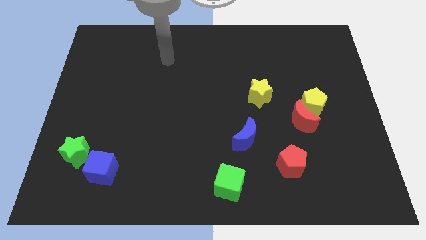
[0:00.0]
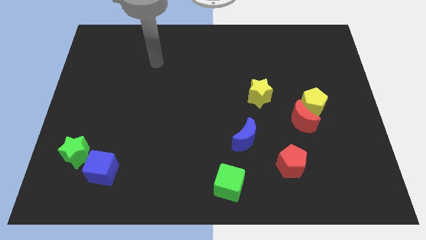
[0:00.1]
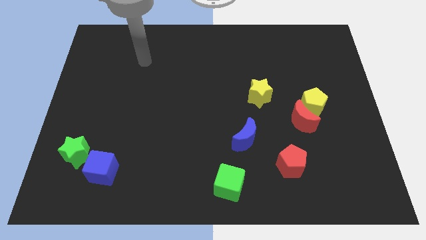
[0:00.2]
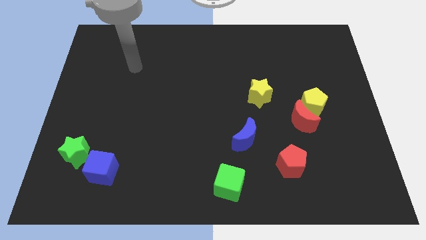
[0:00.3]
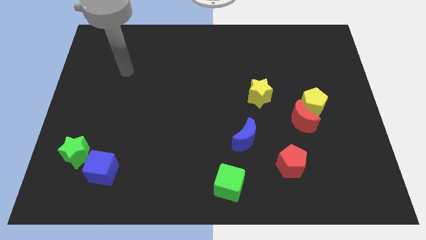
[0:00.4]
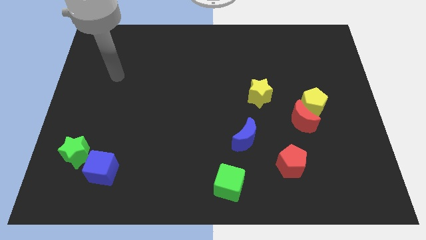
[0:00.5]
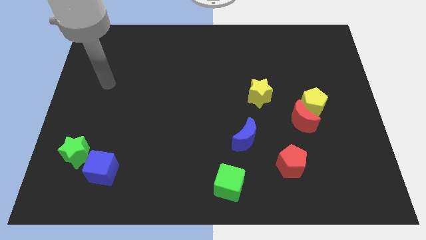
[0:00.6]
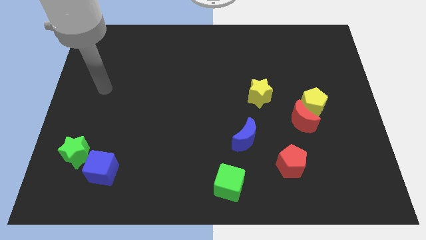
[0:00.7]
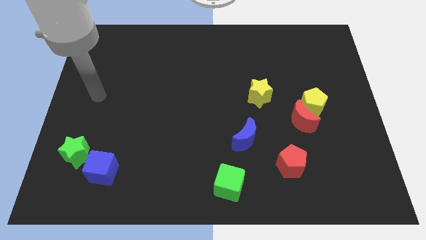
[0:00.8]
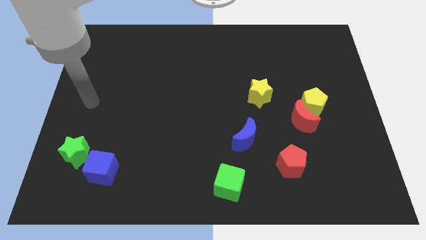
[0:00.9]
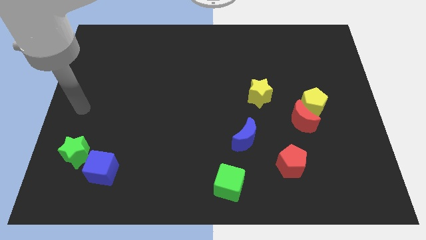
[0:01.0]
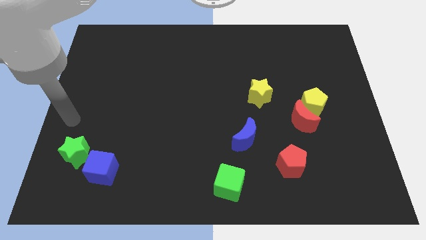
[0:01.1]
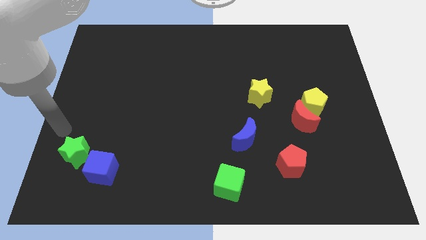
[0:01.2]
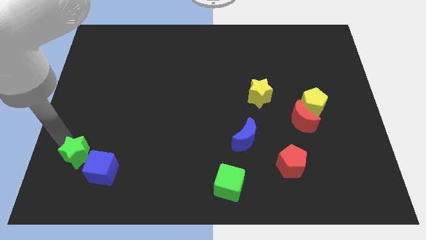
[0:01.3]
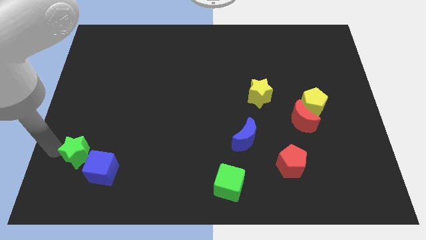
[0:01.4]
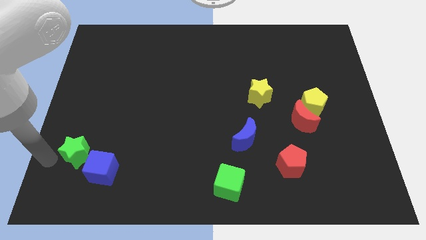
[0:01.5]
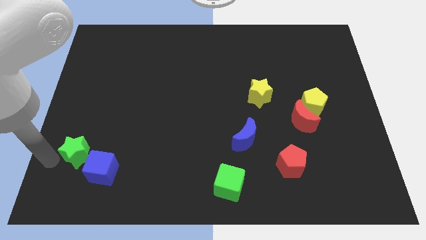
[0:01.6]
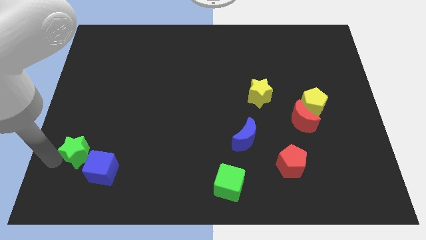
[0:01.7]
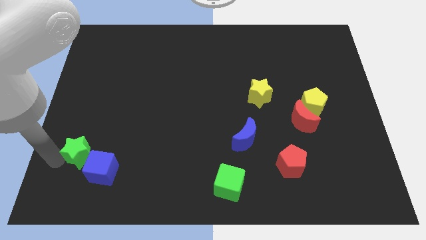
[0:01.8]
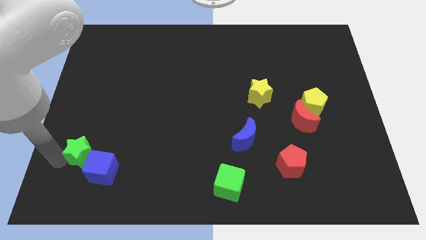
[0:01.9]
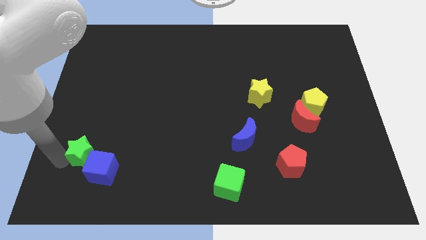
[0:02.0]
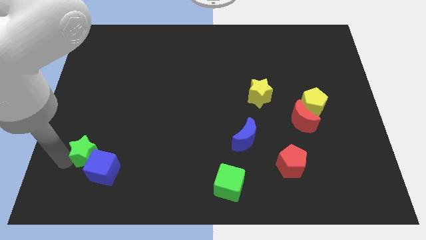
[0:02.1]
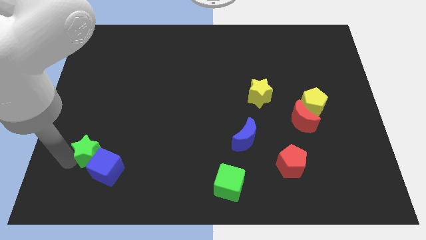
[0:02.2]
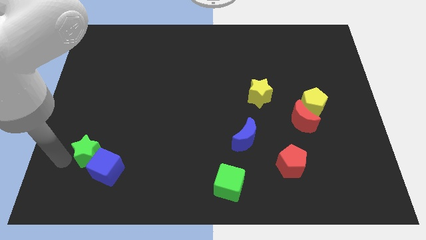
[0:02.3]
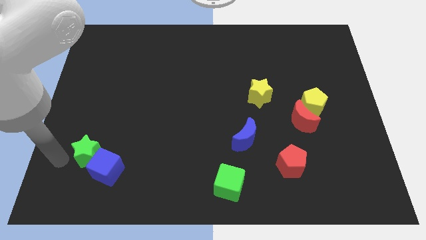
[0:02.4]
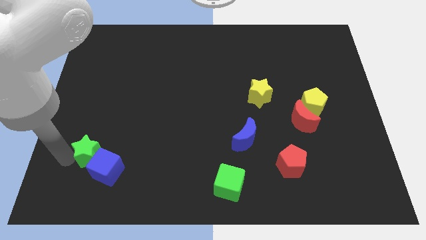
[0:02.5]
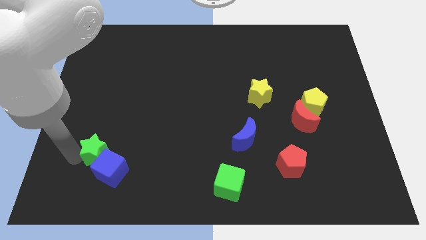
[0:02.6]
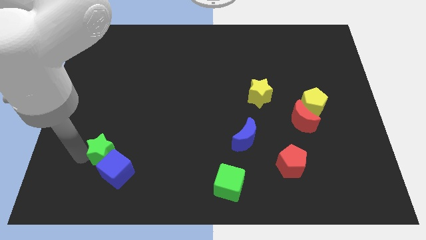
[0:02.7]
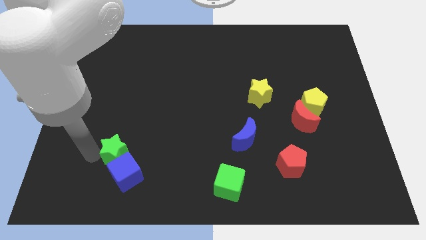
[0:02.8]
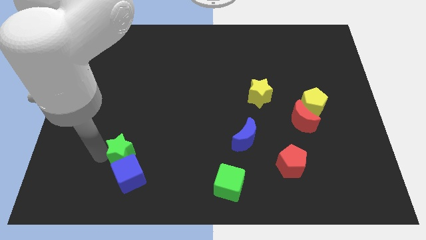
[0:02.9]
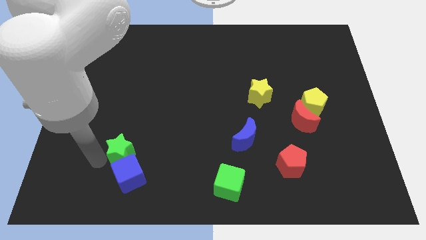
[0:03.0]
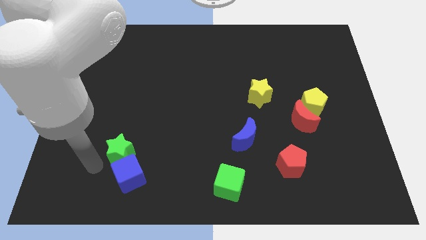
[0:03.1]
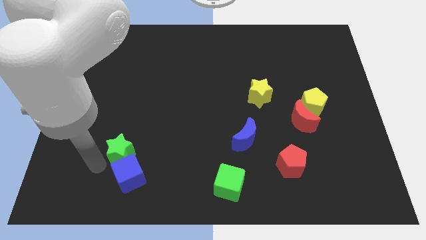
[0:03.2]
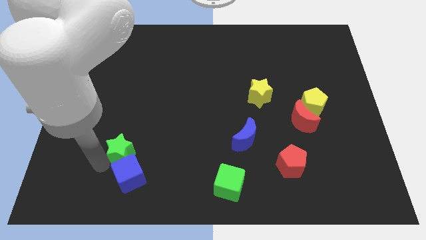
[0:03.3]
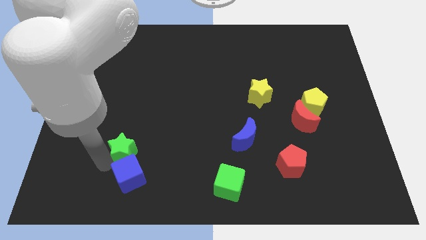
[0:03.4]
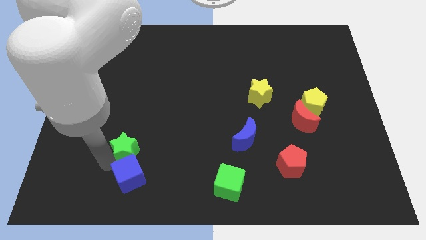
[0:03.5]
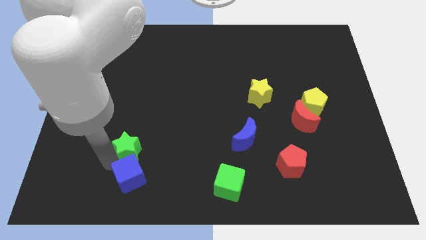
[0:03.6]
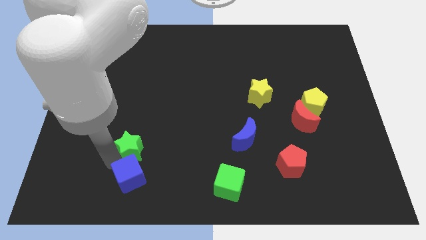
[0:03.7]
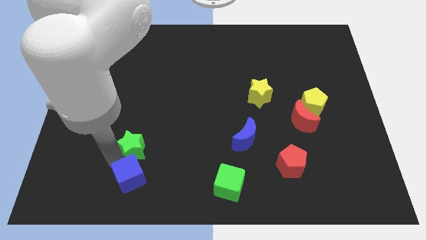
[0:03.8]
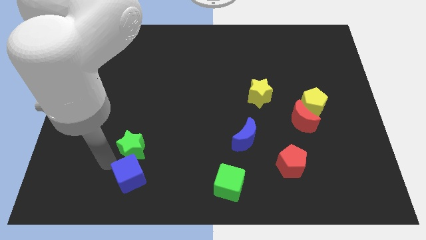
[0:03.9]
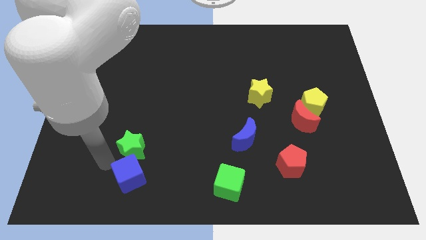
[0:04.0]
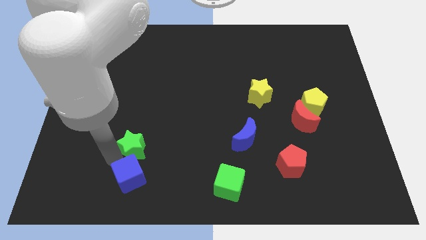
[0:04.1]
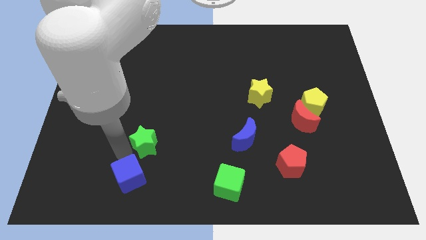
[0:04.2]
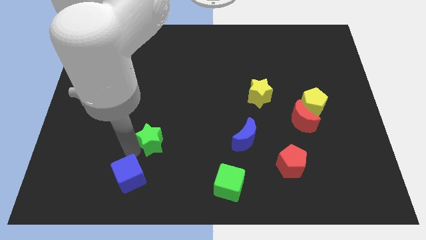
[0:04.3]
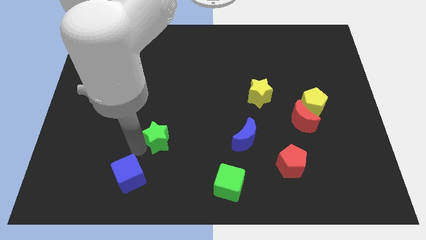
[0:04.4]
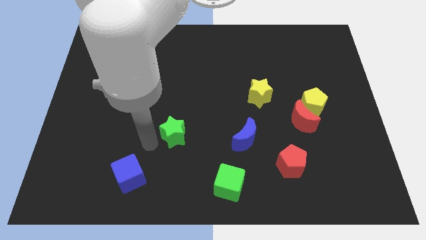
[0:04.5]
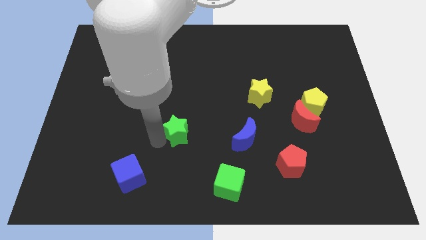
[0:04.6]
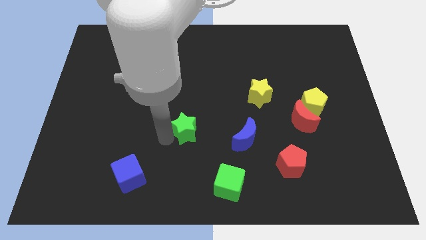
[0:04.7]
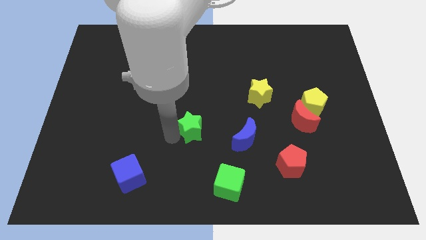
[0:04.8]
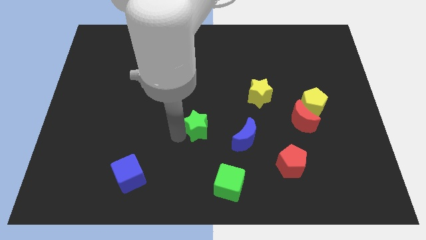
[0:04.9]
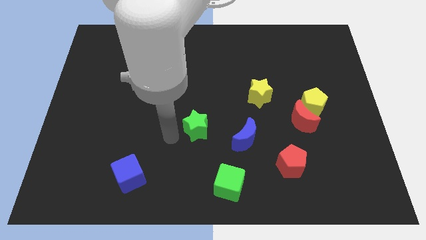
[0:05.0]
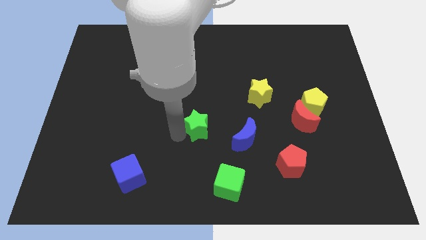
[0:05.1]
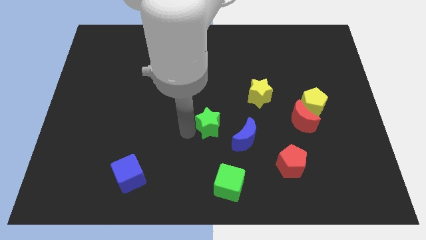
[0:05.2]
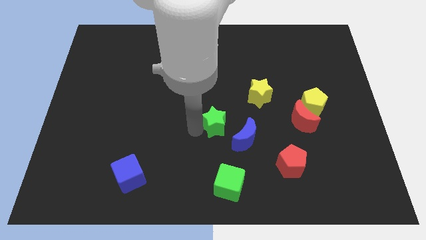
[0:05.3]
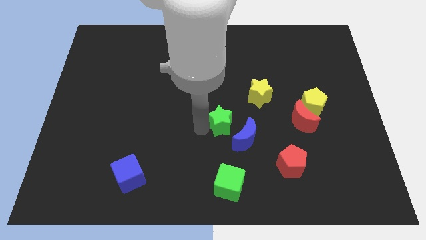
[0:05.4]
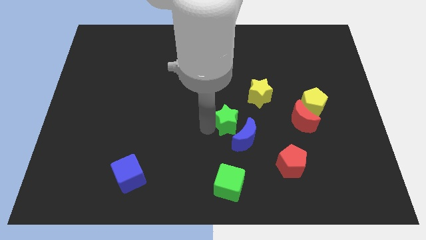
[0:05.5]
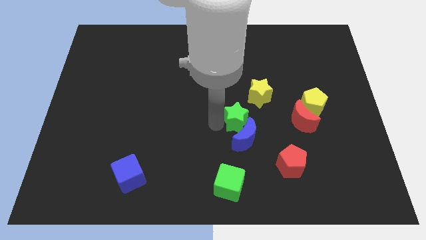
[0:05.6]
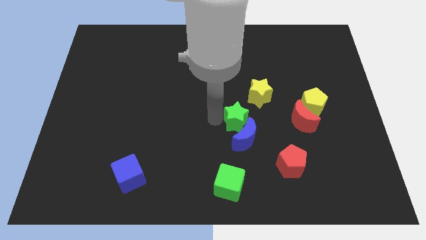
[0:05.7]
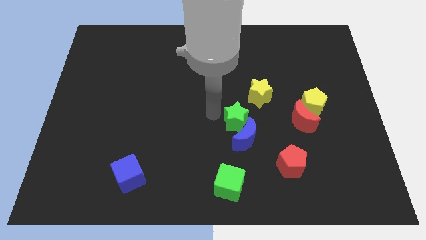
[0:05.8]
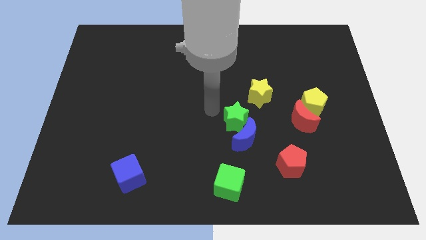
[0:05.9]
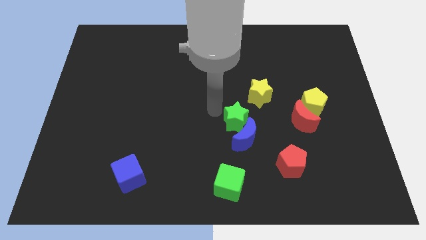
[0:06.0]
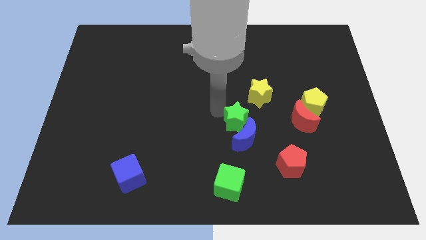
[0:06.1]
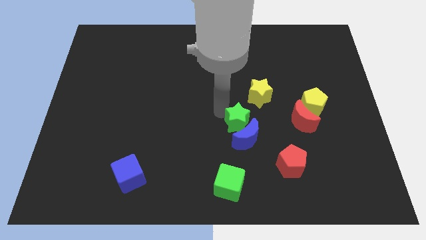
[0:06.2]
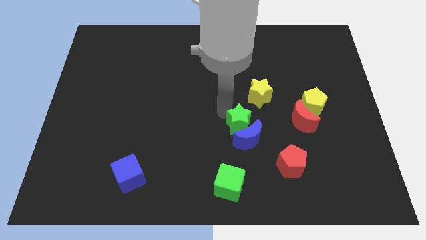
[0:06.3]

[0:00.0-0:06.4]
push the green star below the yellow star
